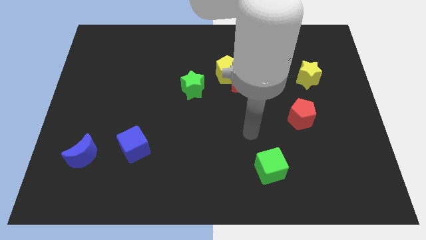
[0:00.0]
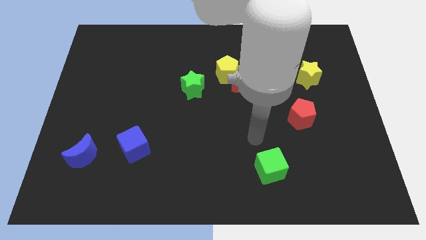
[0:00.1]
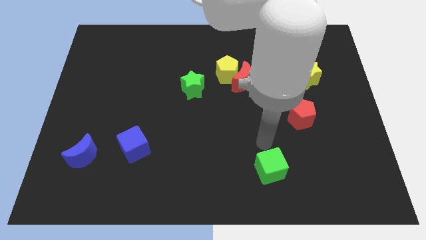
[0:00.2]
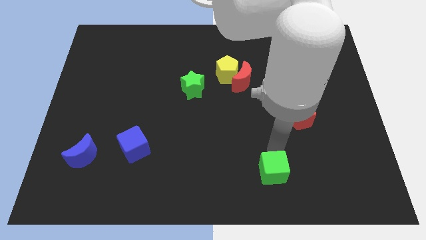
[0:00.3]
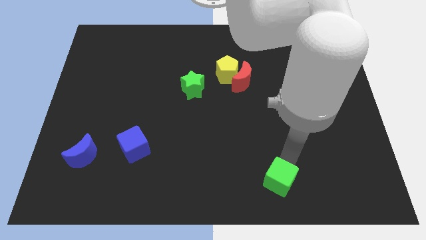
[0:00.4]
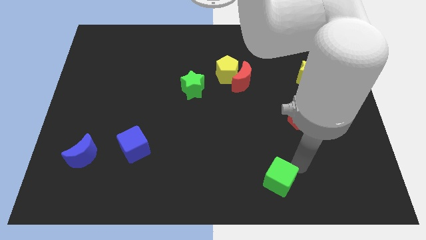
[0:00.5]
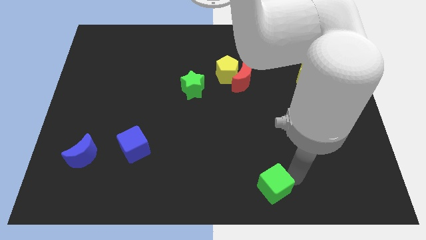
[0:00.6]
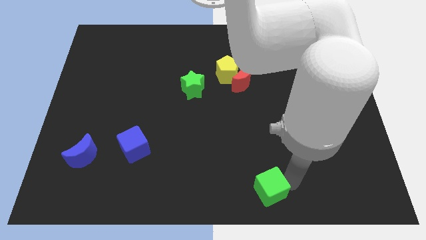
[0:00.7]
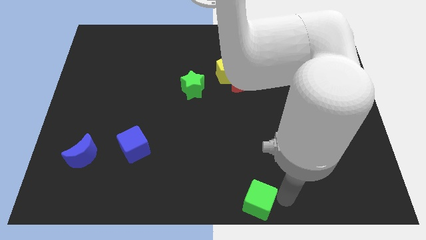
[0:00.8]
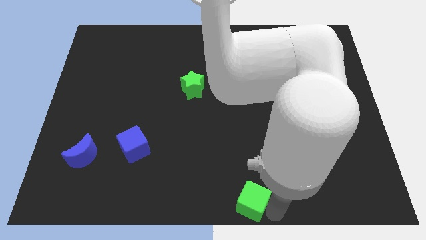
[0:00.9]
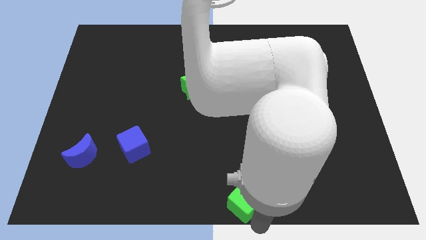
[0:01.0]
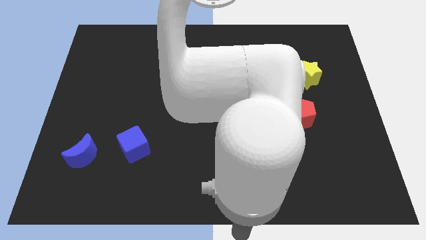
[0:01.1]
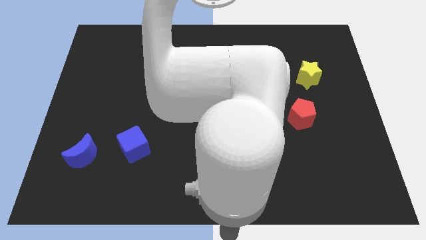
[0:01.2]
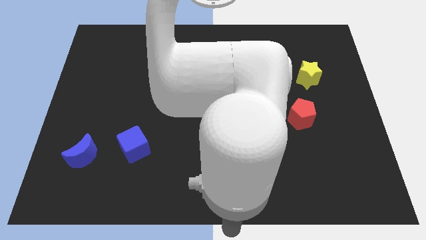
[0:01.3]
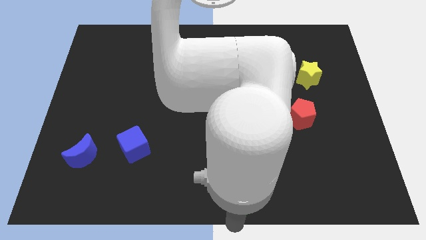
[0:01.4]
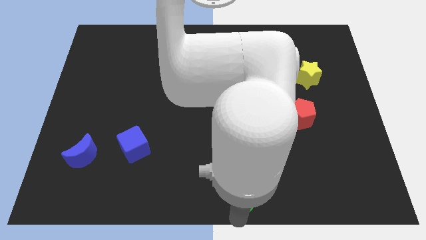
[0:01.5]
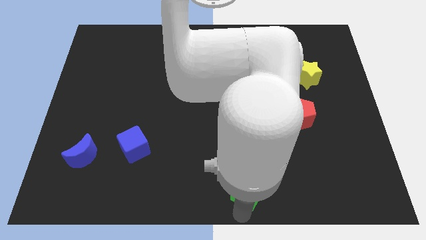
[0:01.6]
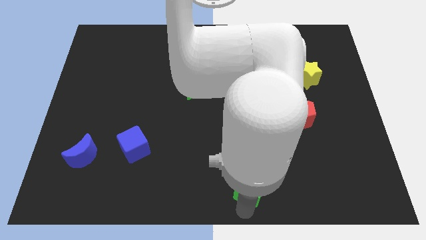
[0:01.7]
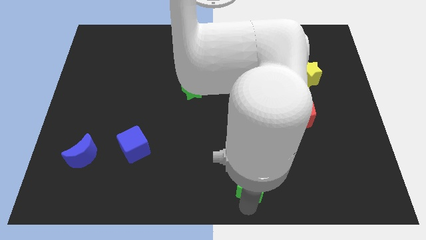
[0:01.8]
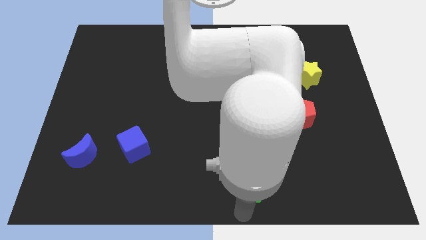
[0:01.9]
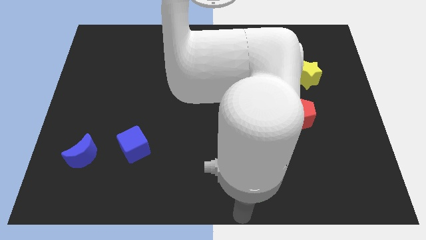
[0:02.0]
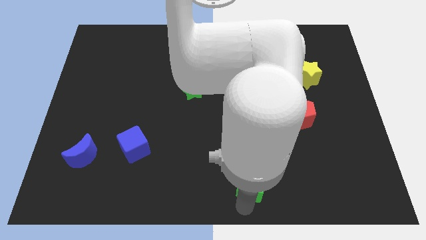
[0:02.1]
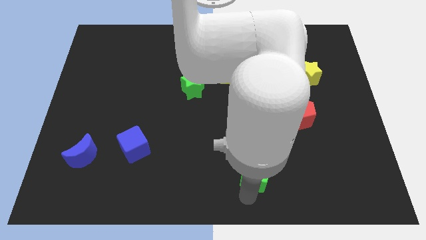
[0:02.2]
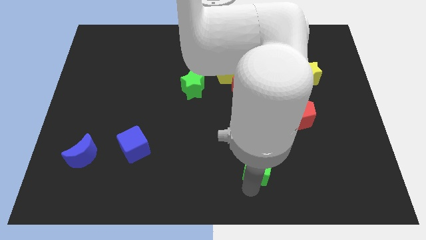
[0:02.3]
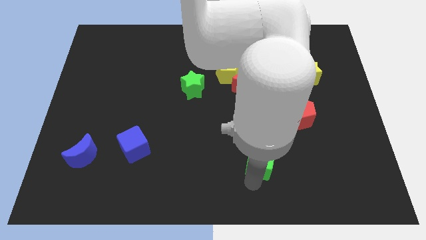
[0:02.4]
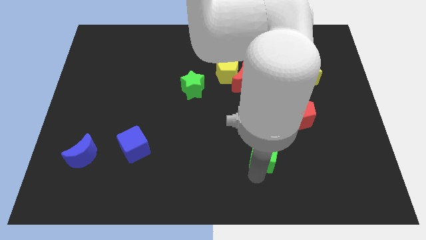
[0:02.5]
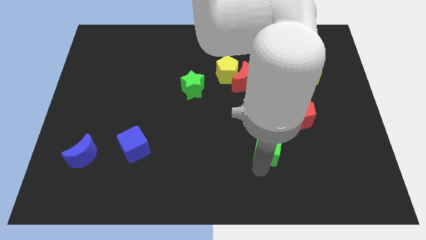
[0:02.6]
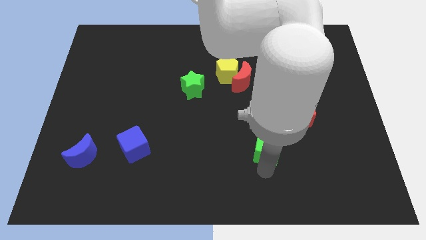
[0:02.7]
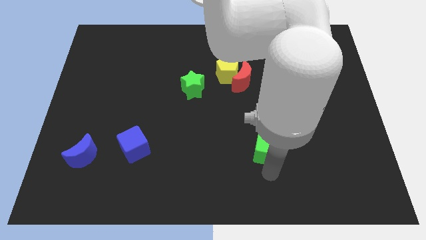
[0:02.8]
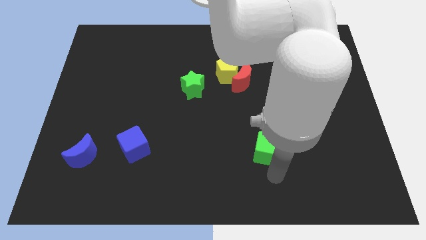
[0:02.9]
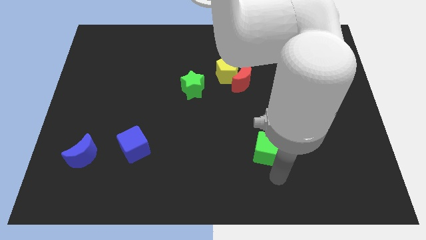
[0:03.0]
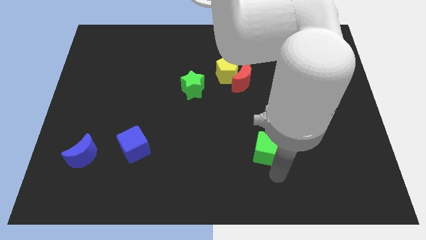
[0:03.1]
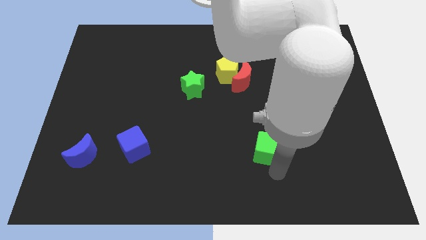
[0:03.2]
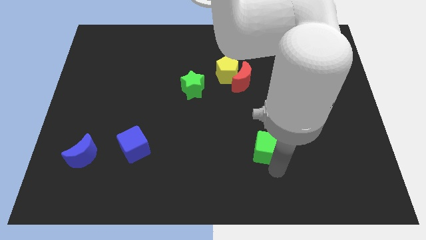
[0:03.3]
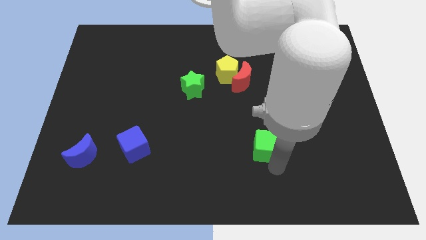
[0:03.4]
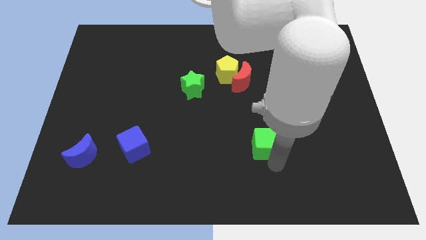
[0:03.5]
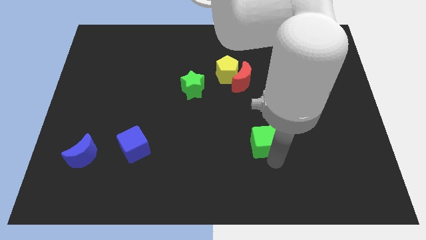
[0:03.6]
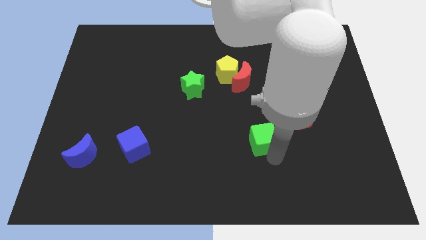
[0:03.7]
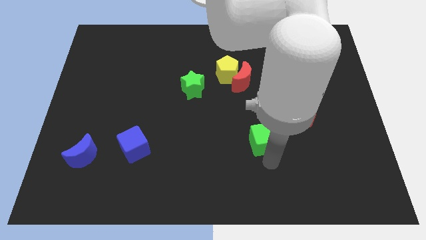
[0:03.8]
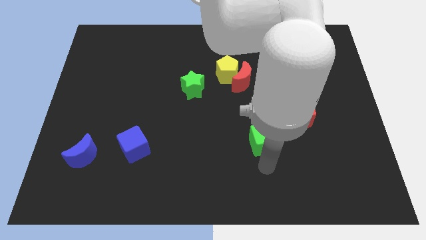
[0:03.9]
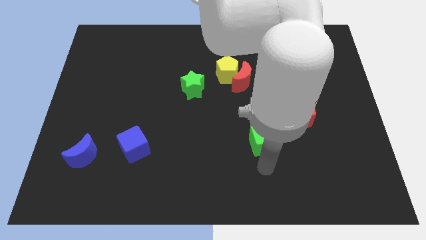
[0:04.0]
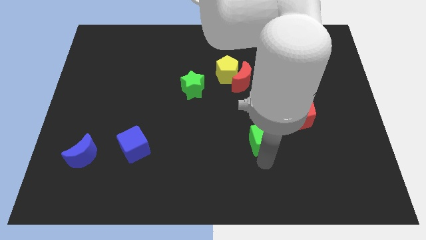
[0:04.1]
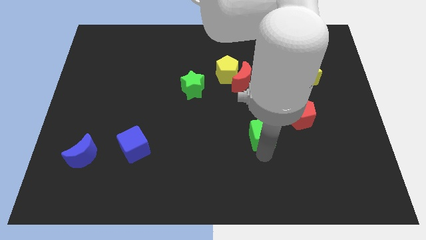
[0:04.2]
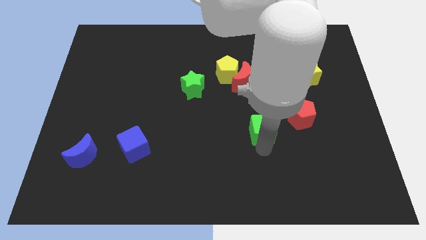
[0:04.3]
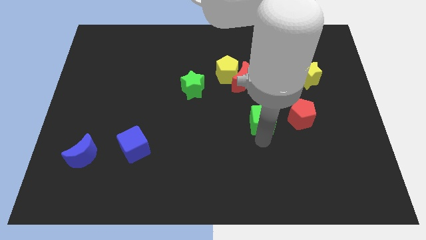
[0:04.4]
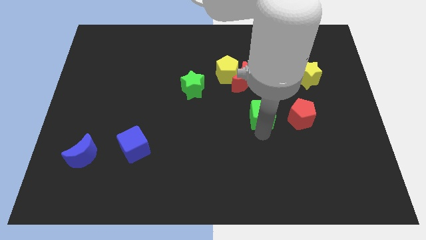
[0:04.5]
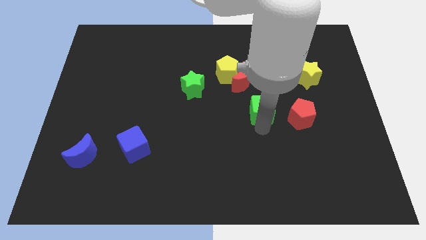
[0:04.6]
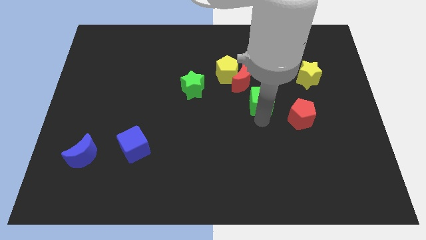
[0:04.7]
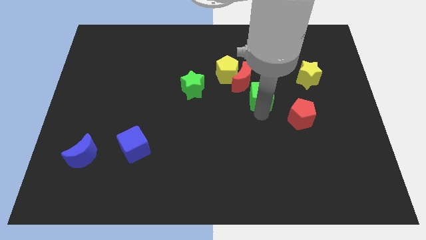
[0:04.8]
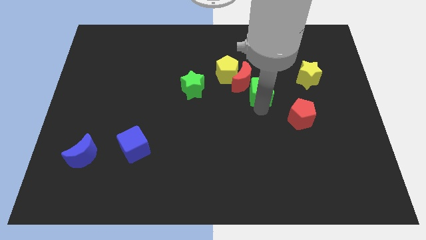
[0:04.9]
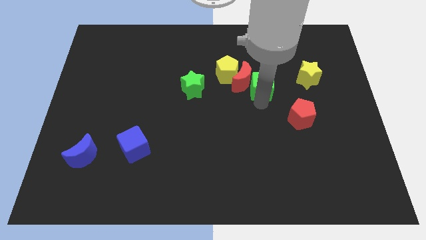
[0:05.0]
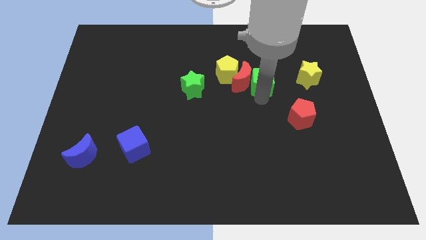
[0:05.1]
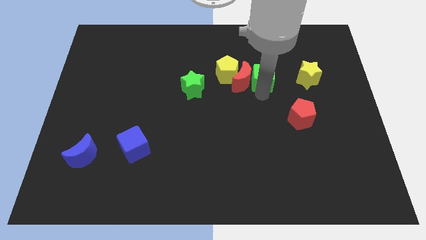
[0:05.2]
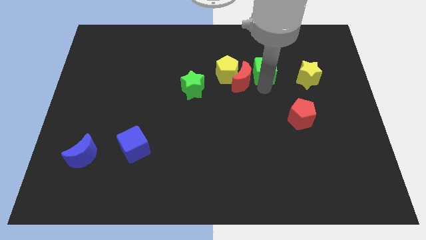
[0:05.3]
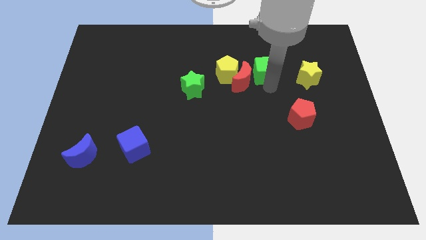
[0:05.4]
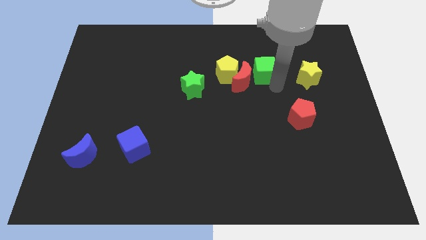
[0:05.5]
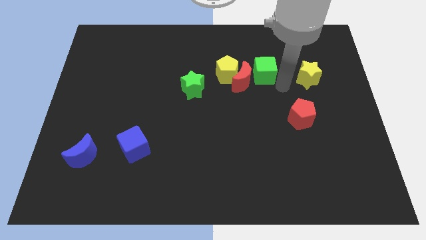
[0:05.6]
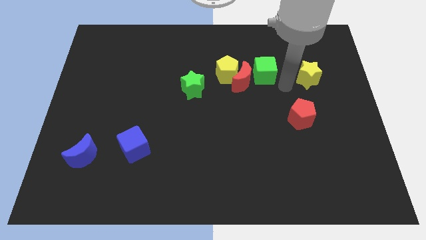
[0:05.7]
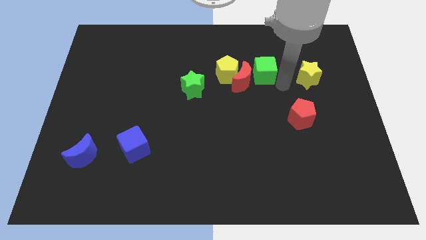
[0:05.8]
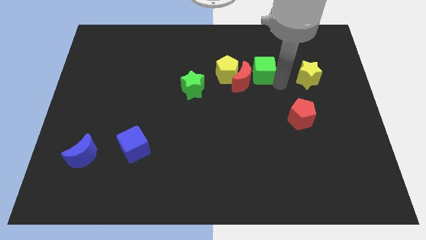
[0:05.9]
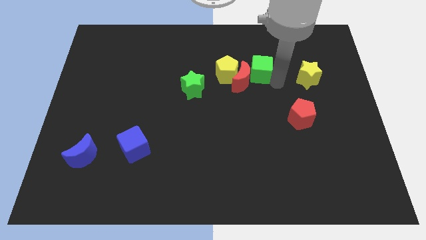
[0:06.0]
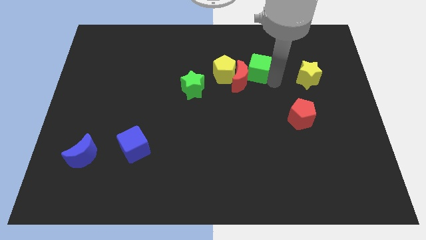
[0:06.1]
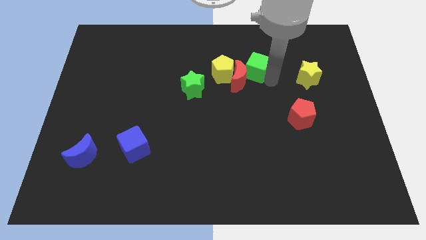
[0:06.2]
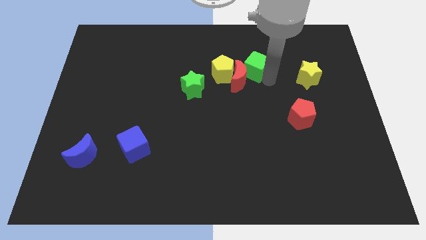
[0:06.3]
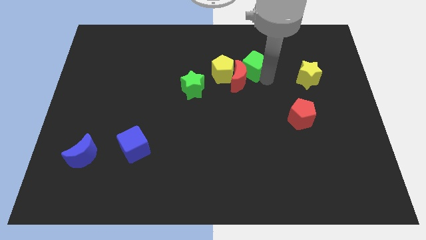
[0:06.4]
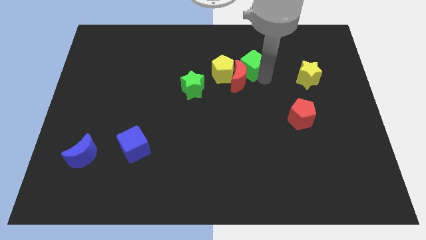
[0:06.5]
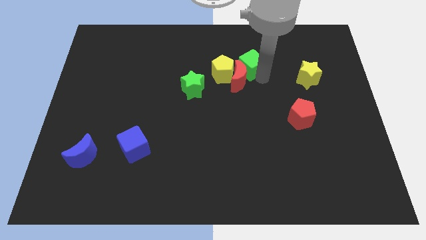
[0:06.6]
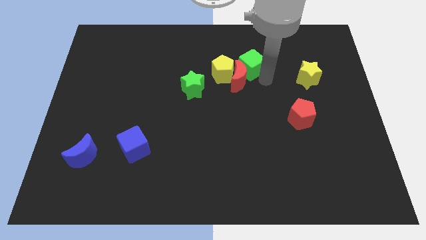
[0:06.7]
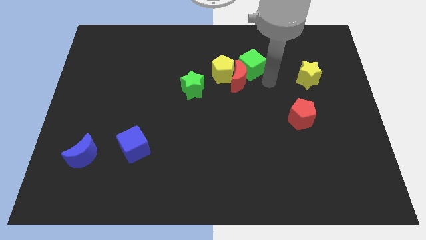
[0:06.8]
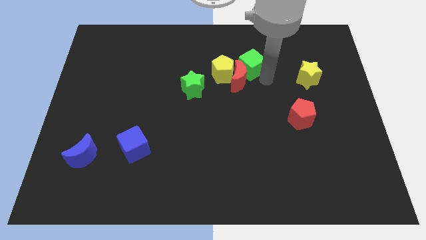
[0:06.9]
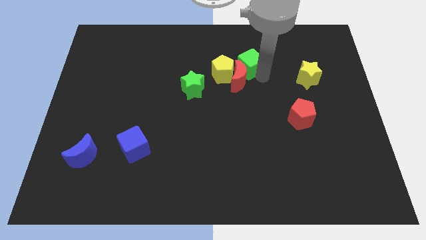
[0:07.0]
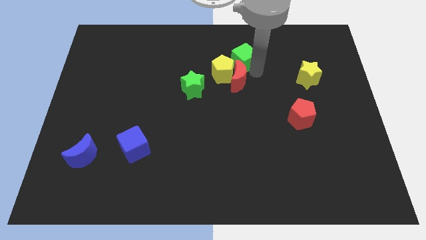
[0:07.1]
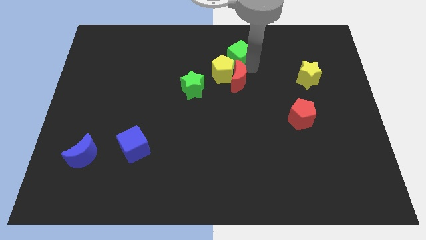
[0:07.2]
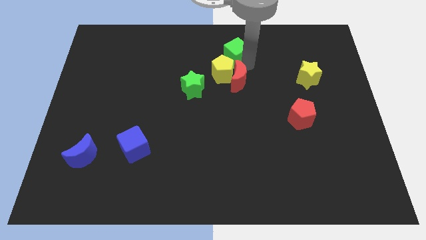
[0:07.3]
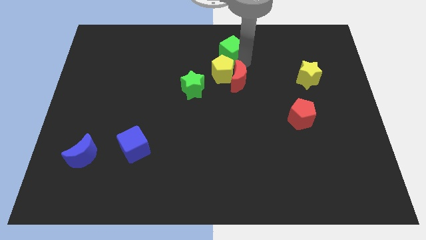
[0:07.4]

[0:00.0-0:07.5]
push the green cube to the towards your base
